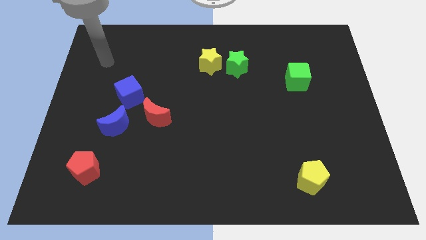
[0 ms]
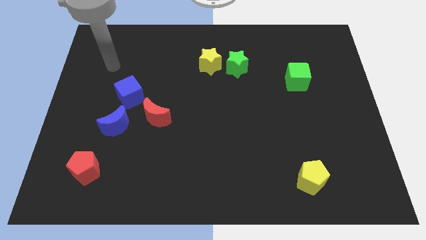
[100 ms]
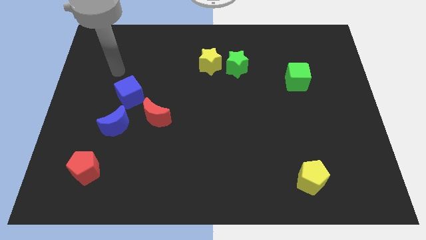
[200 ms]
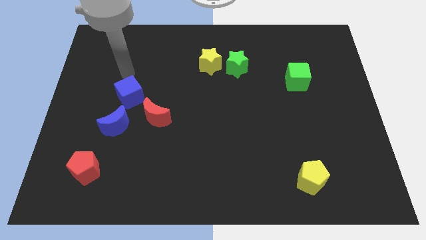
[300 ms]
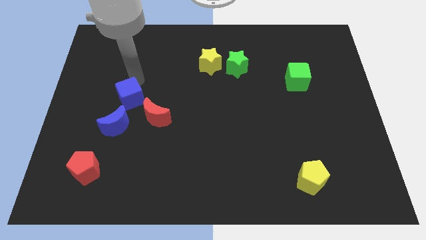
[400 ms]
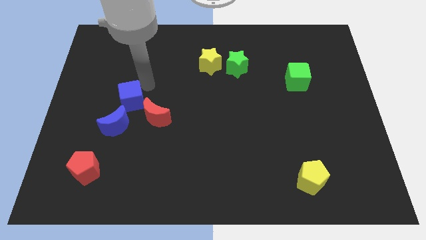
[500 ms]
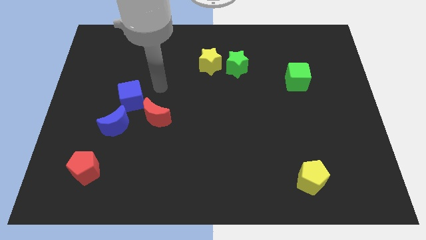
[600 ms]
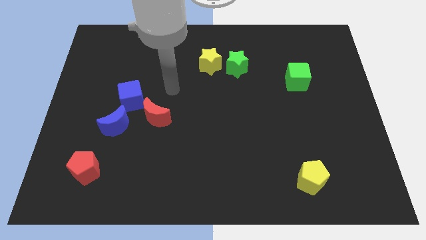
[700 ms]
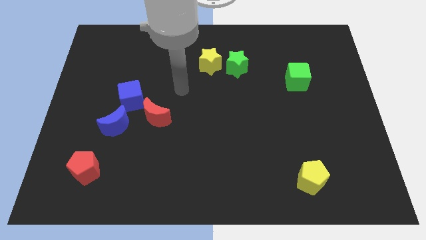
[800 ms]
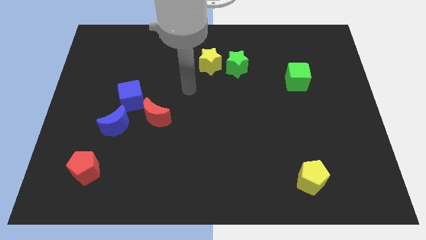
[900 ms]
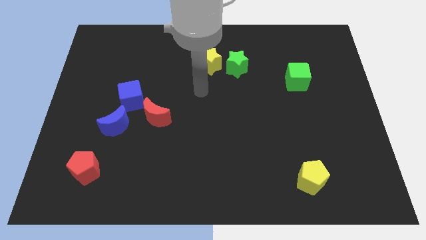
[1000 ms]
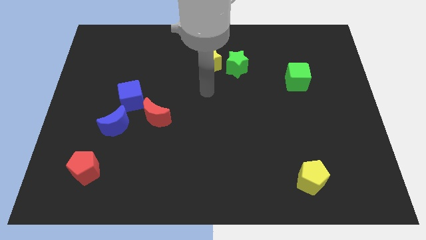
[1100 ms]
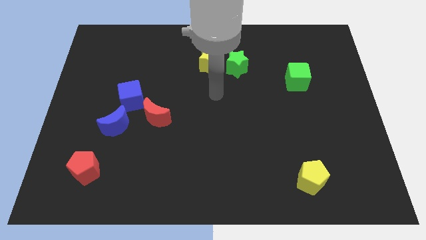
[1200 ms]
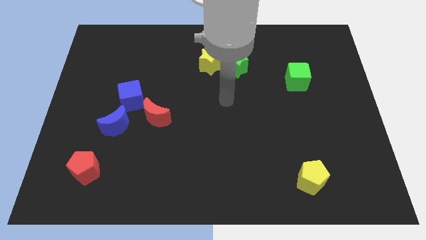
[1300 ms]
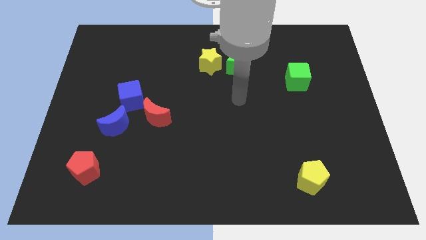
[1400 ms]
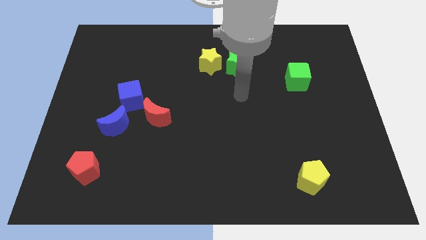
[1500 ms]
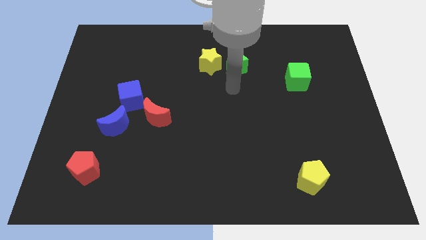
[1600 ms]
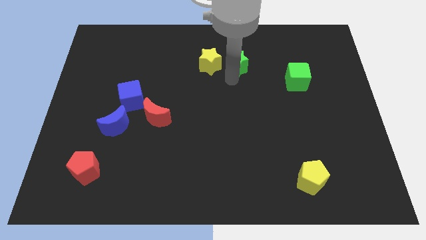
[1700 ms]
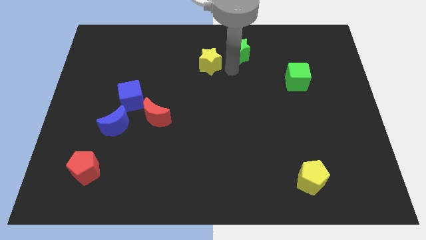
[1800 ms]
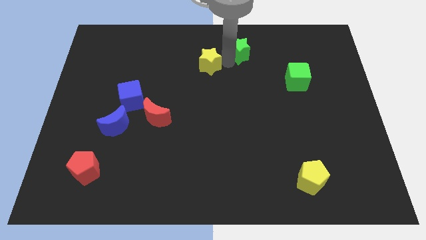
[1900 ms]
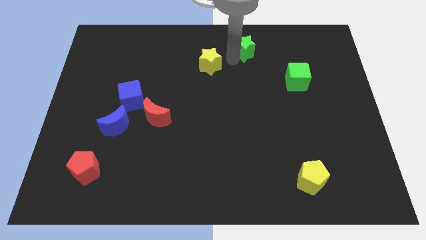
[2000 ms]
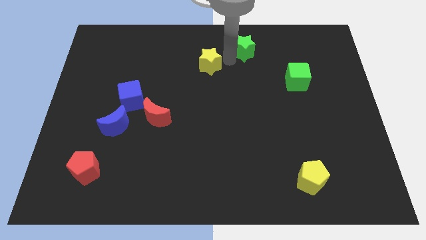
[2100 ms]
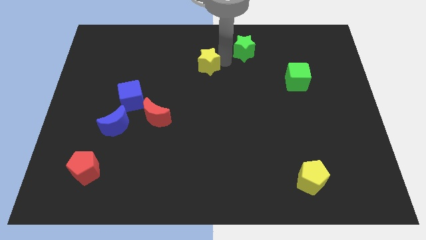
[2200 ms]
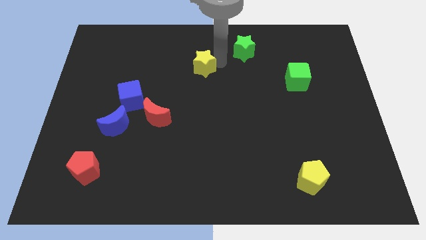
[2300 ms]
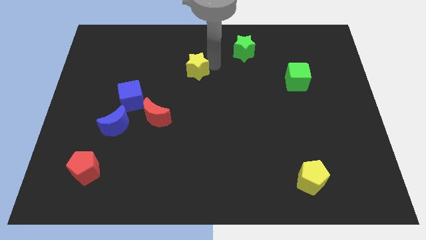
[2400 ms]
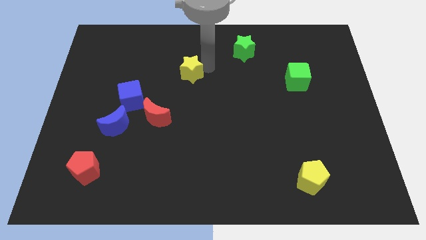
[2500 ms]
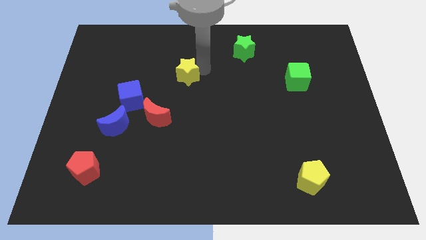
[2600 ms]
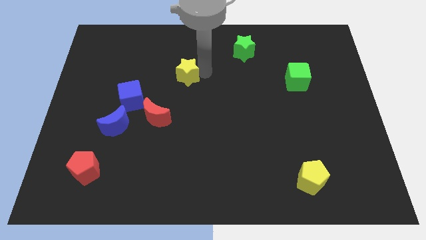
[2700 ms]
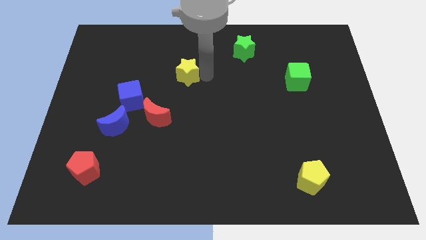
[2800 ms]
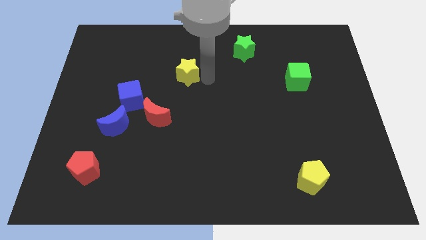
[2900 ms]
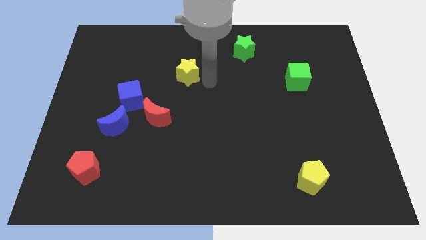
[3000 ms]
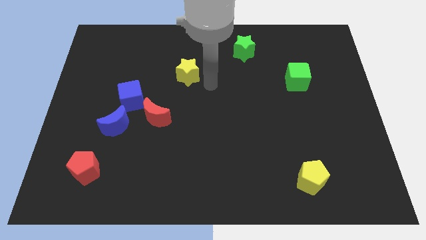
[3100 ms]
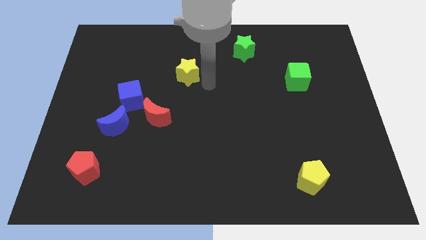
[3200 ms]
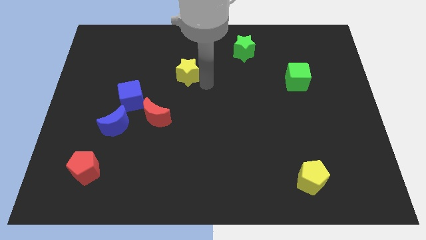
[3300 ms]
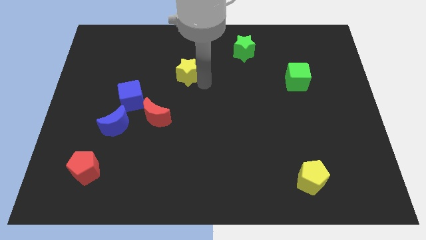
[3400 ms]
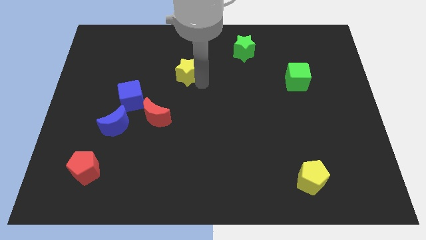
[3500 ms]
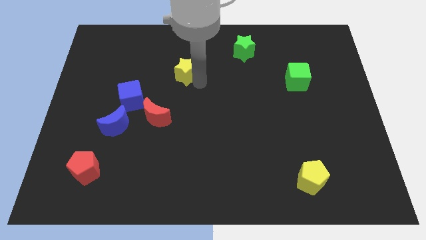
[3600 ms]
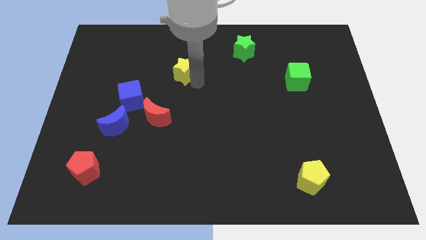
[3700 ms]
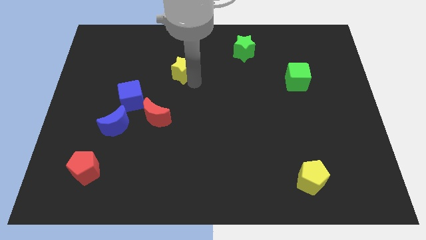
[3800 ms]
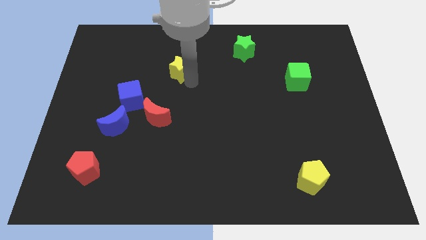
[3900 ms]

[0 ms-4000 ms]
slide the yellow star a little bit left

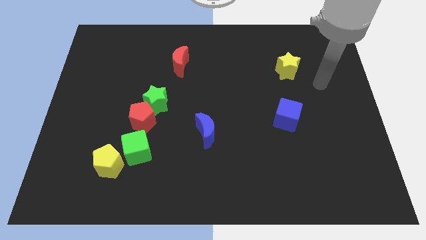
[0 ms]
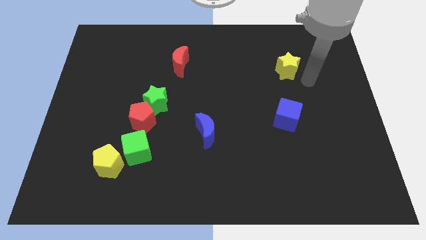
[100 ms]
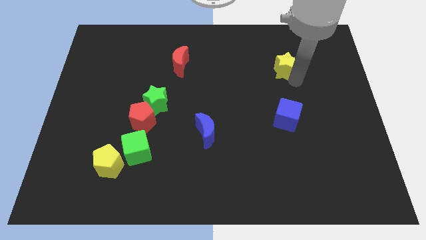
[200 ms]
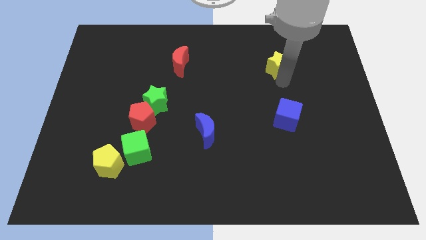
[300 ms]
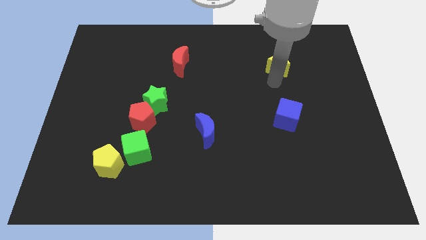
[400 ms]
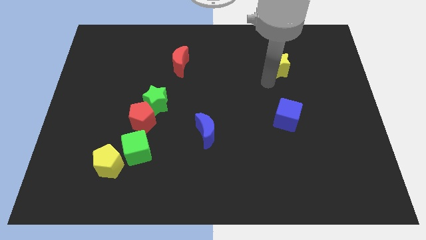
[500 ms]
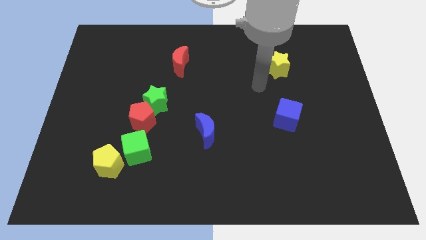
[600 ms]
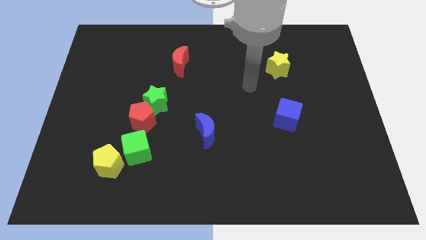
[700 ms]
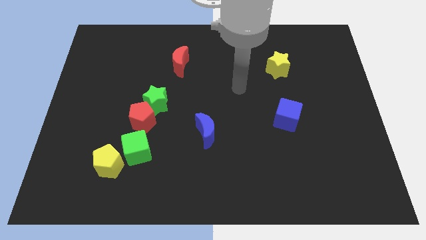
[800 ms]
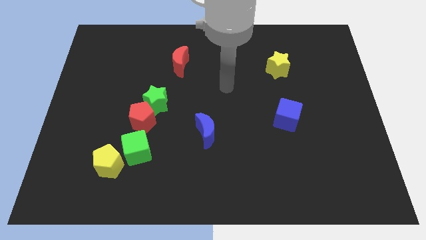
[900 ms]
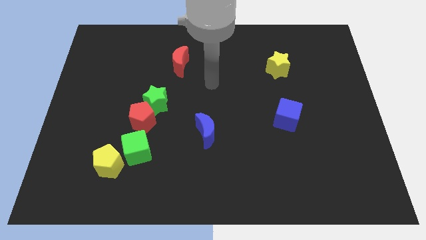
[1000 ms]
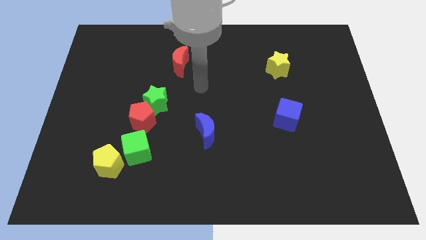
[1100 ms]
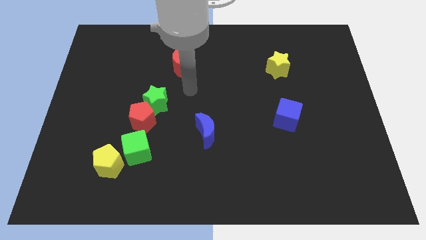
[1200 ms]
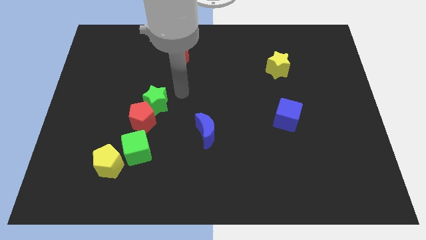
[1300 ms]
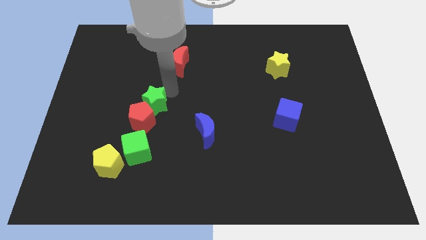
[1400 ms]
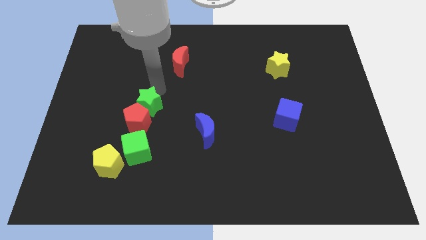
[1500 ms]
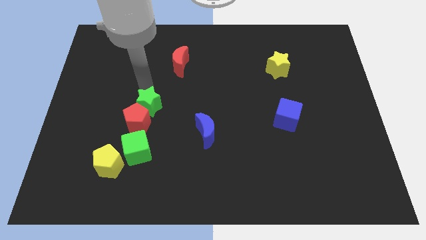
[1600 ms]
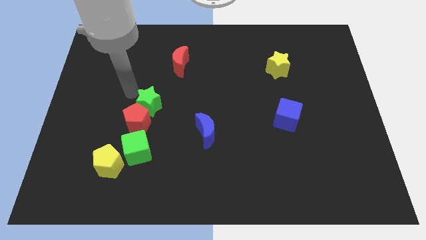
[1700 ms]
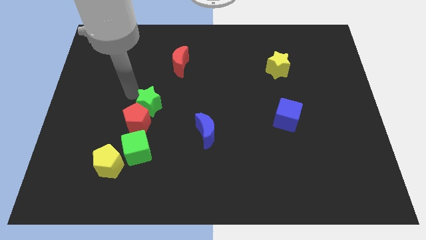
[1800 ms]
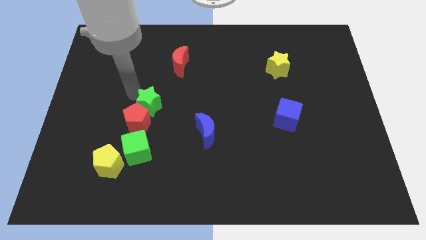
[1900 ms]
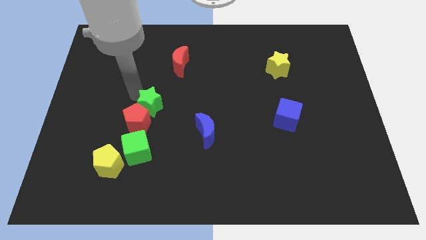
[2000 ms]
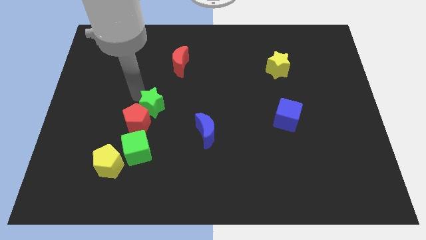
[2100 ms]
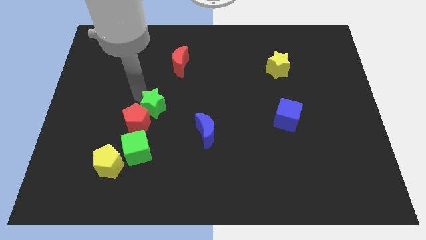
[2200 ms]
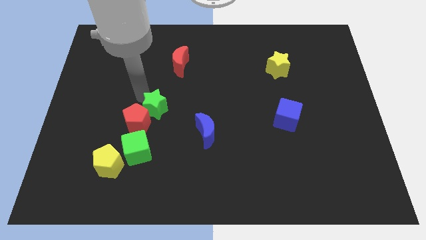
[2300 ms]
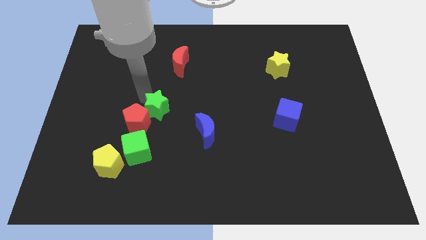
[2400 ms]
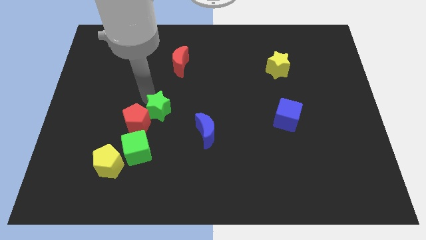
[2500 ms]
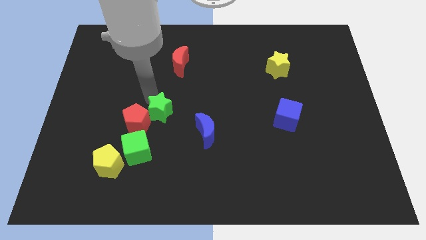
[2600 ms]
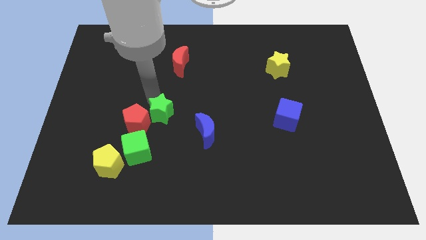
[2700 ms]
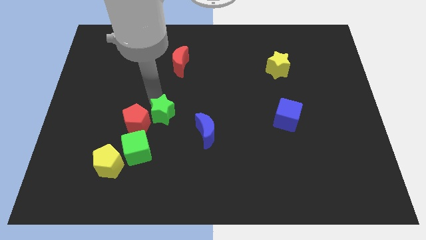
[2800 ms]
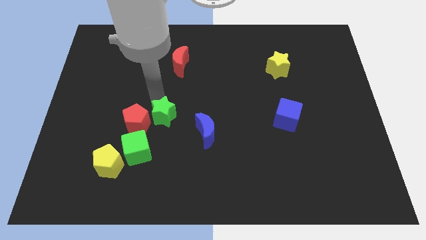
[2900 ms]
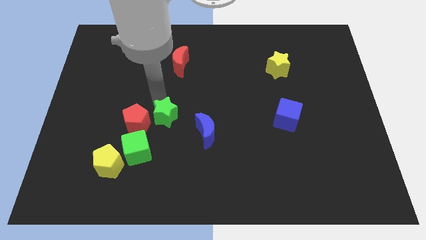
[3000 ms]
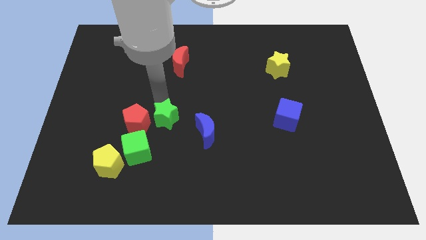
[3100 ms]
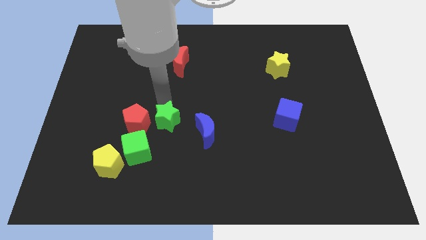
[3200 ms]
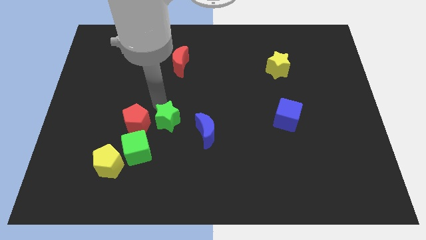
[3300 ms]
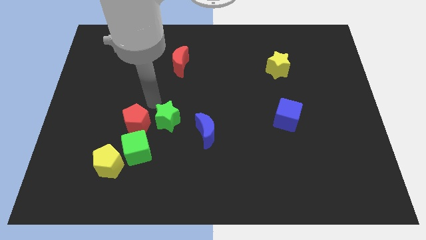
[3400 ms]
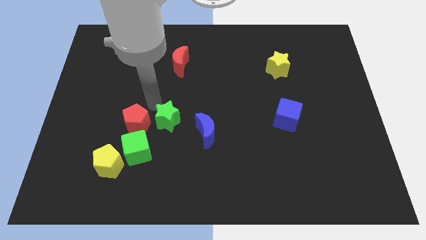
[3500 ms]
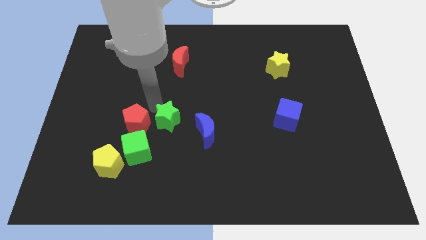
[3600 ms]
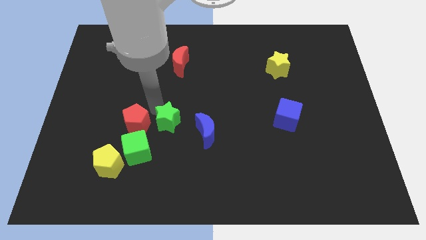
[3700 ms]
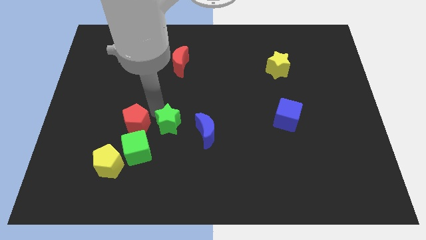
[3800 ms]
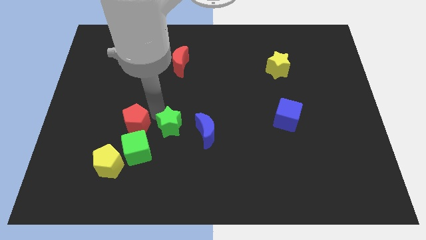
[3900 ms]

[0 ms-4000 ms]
push the green star down and right diagonally a little bit
